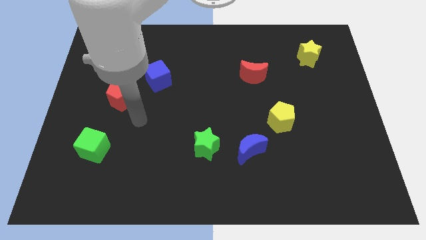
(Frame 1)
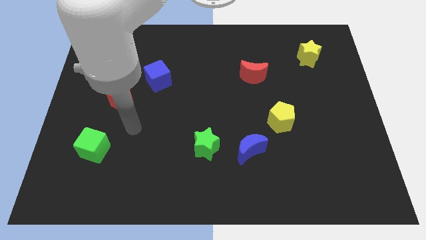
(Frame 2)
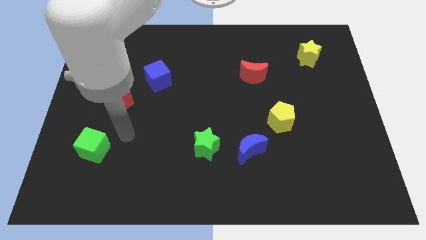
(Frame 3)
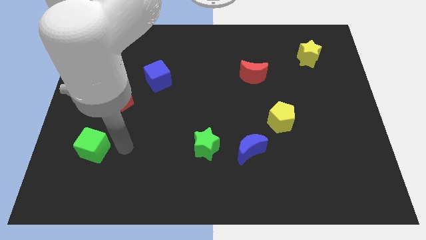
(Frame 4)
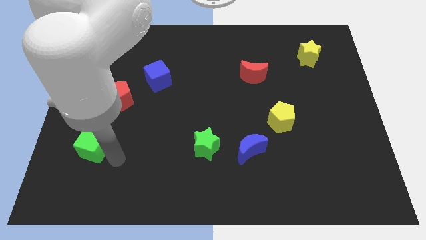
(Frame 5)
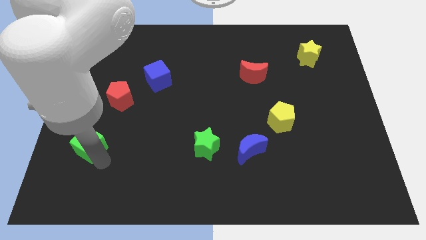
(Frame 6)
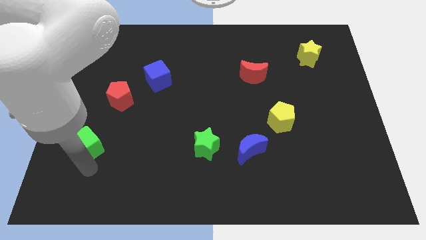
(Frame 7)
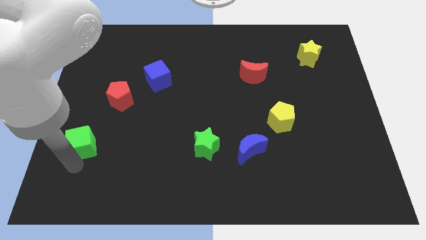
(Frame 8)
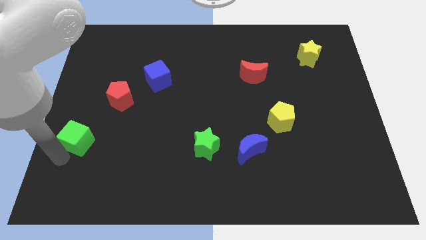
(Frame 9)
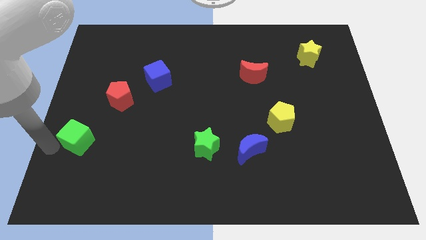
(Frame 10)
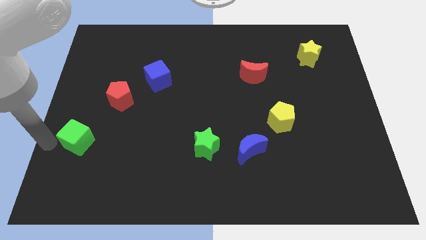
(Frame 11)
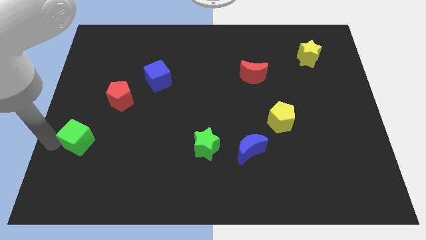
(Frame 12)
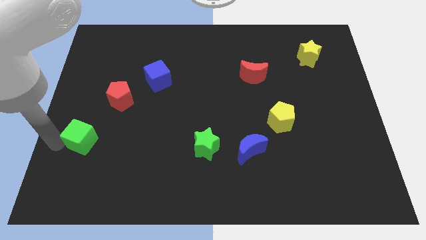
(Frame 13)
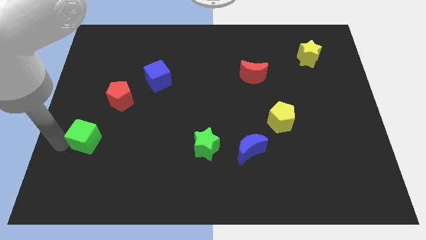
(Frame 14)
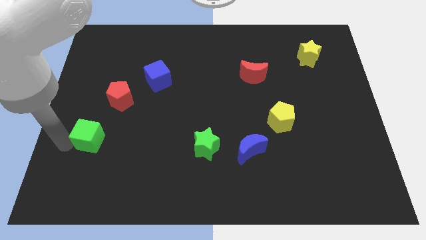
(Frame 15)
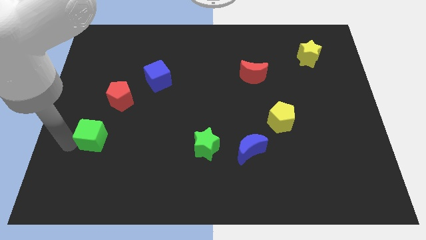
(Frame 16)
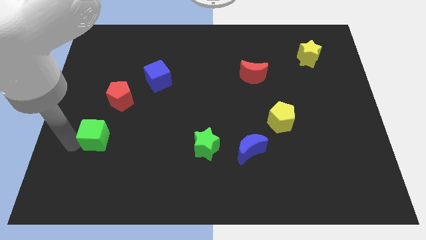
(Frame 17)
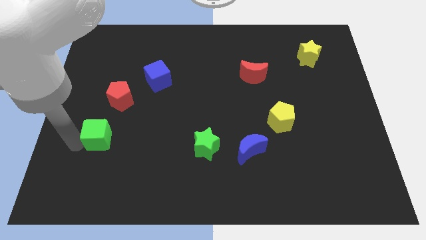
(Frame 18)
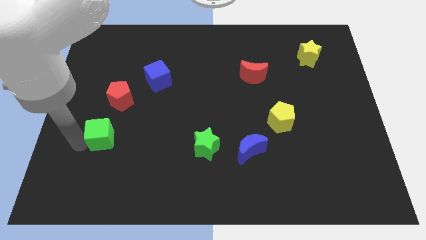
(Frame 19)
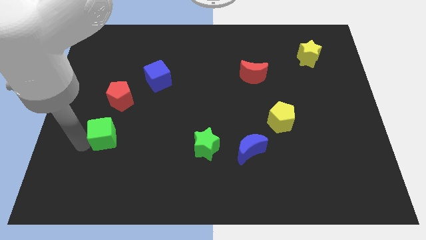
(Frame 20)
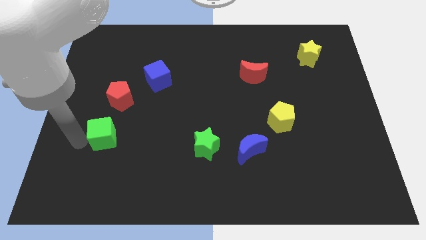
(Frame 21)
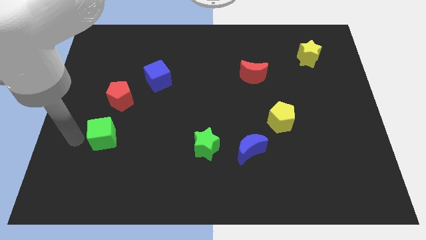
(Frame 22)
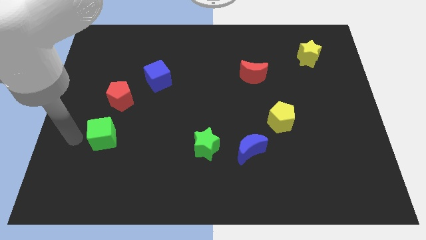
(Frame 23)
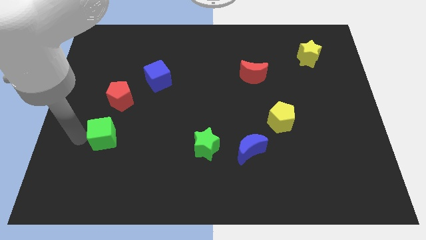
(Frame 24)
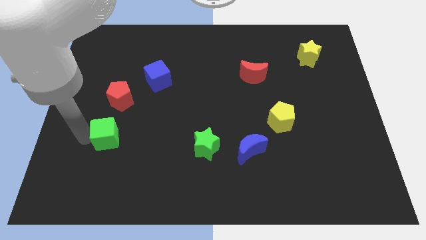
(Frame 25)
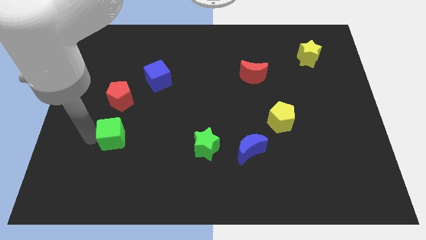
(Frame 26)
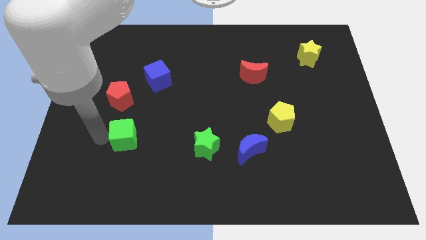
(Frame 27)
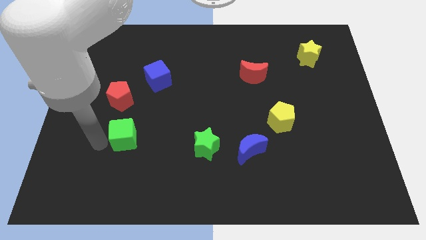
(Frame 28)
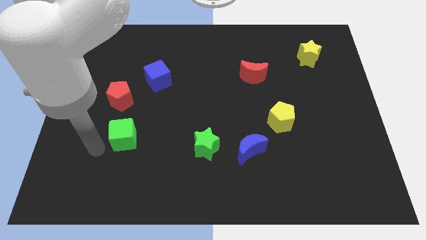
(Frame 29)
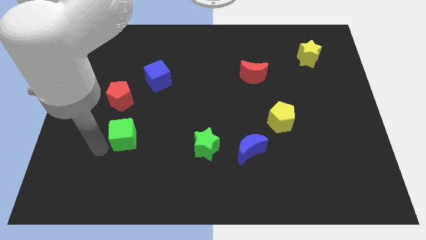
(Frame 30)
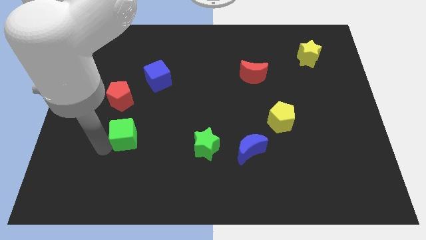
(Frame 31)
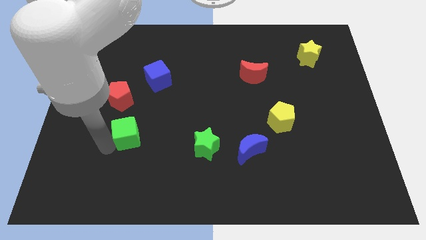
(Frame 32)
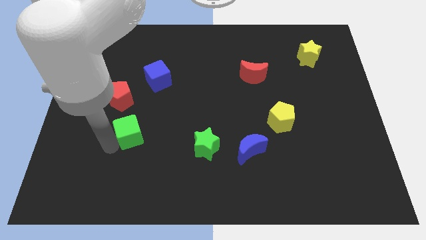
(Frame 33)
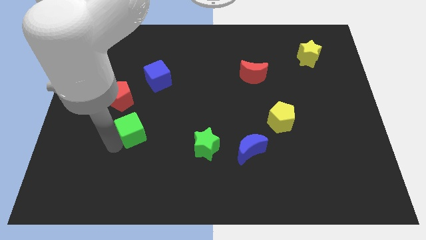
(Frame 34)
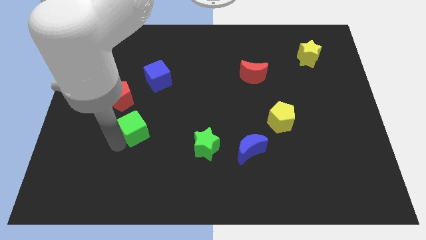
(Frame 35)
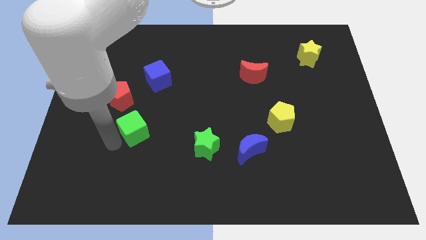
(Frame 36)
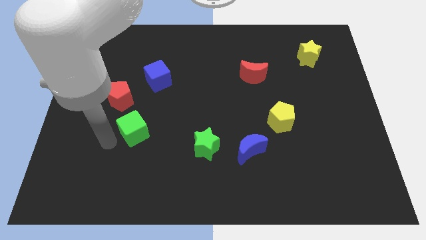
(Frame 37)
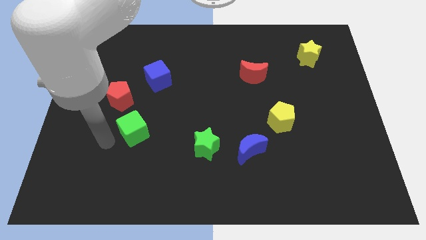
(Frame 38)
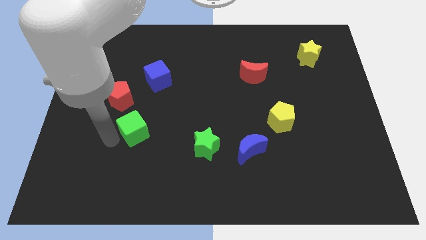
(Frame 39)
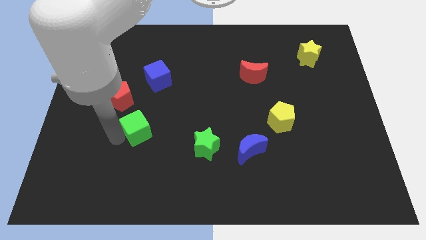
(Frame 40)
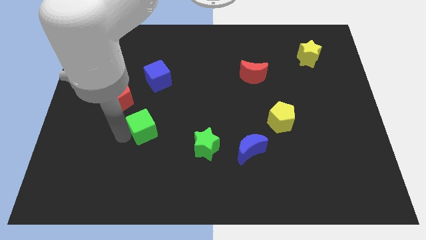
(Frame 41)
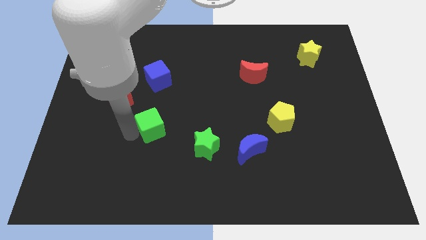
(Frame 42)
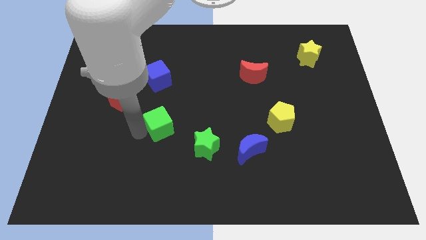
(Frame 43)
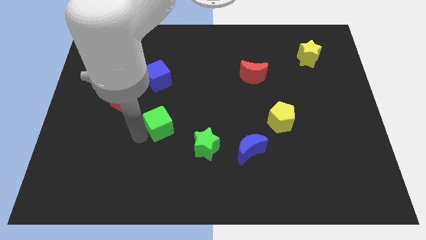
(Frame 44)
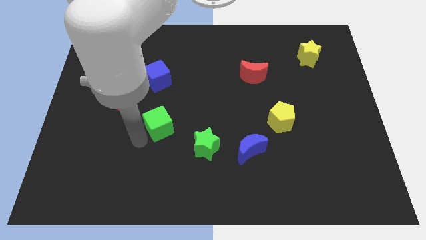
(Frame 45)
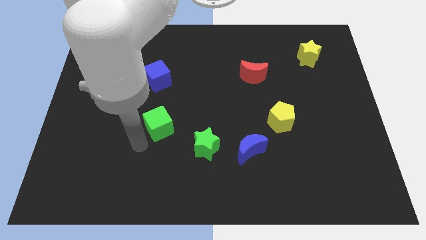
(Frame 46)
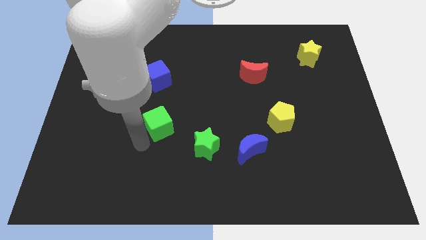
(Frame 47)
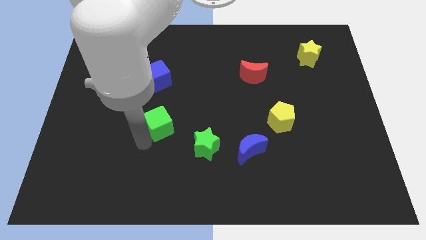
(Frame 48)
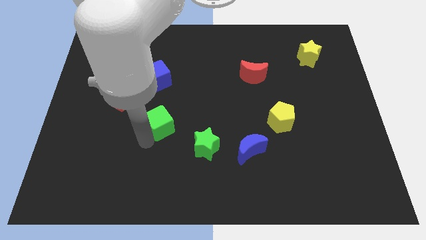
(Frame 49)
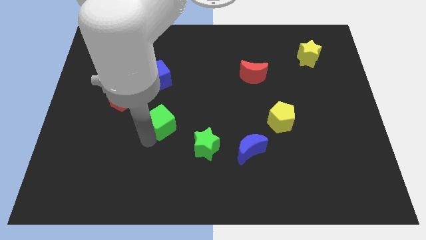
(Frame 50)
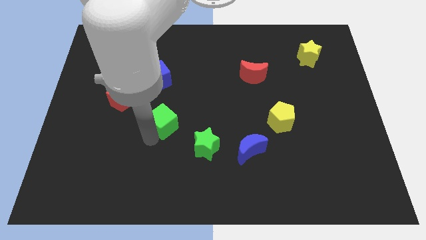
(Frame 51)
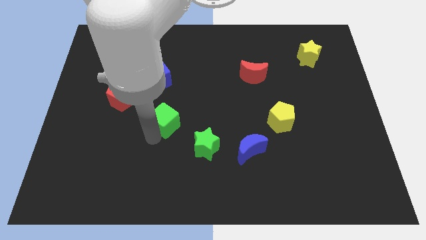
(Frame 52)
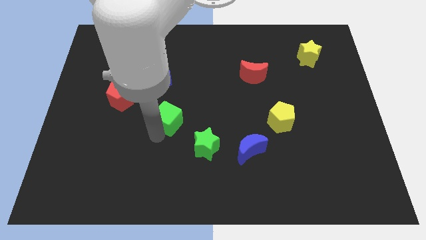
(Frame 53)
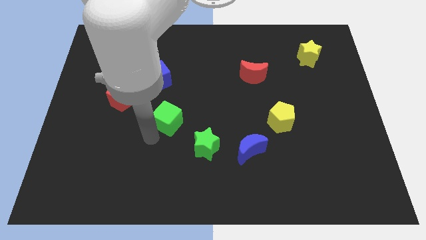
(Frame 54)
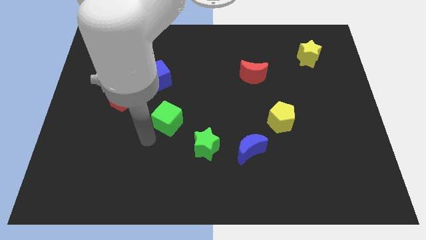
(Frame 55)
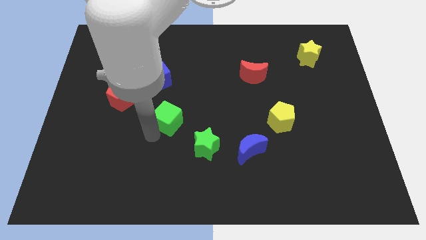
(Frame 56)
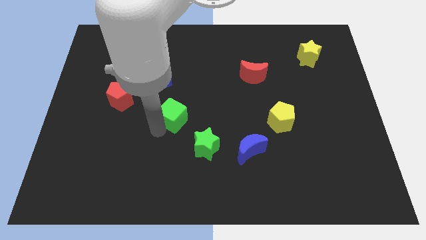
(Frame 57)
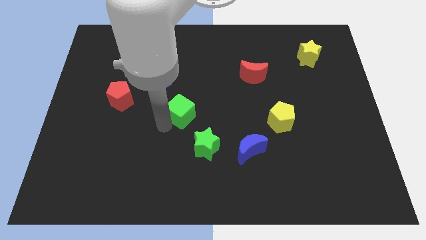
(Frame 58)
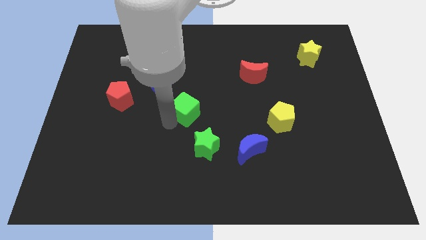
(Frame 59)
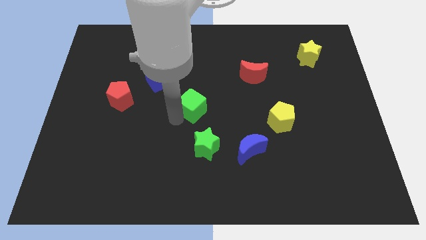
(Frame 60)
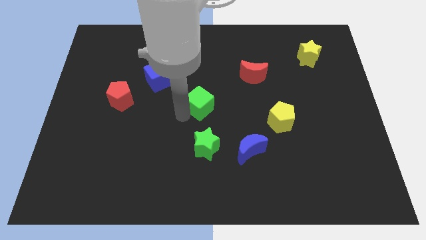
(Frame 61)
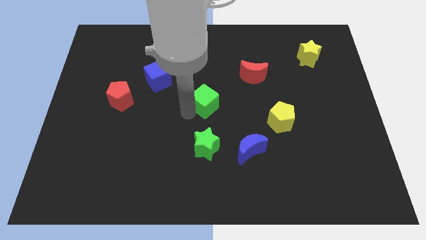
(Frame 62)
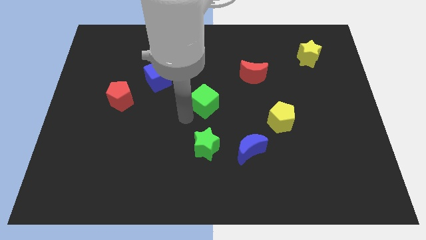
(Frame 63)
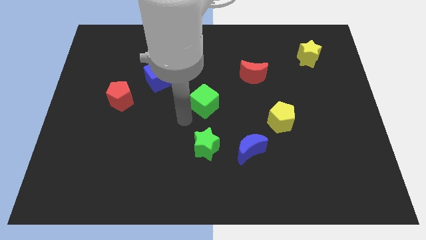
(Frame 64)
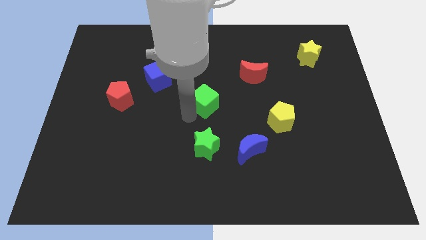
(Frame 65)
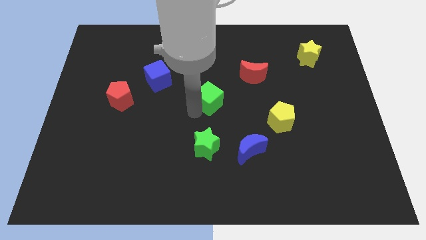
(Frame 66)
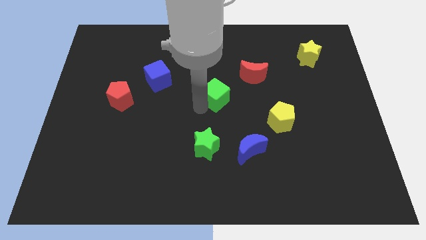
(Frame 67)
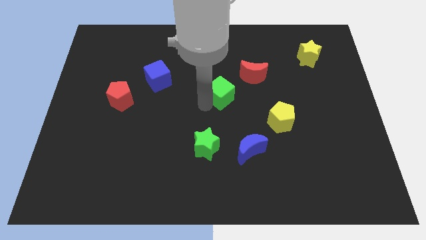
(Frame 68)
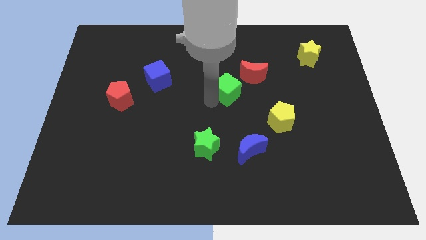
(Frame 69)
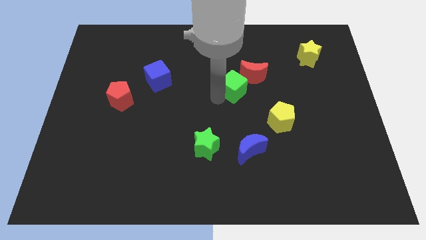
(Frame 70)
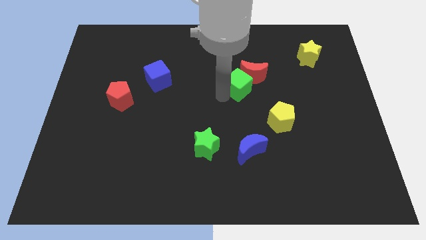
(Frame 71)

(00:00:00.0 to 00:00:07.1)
push the green cube close to the red moon
